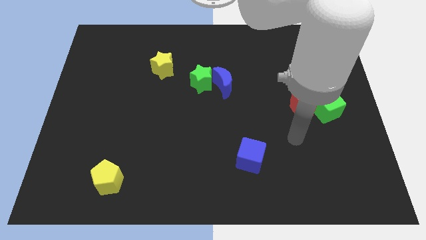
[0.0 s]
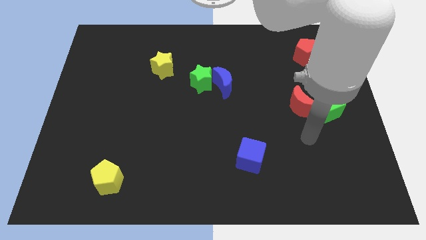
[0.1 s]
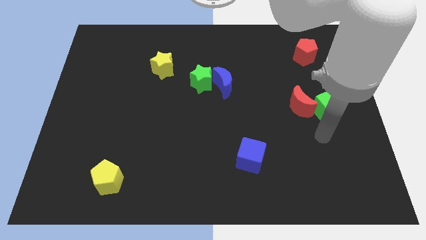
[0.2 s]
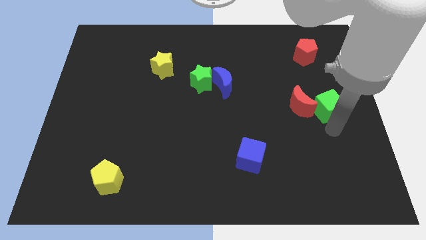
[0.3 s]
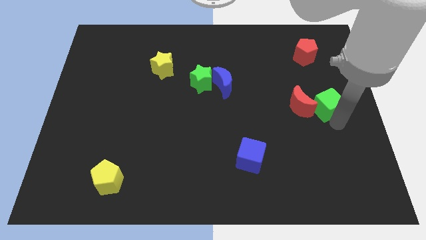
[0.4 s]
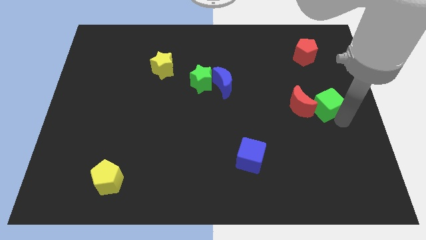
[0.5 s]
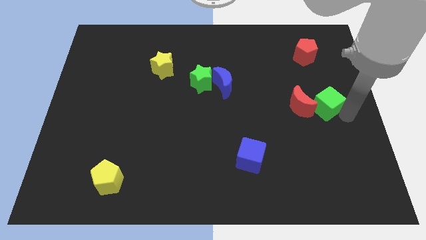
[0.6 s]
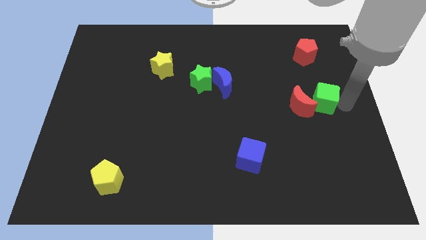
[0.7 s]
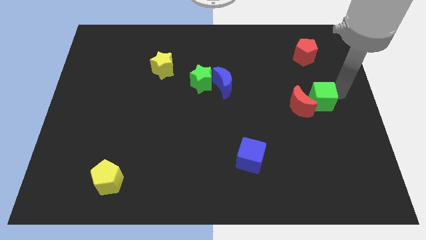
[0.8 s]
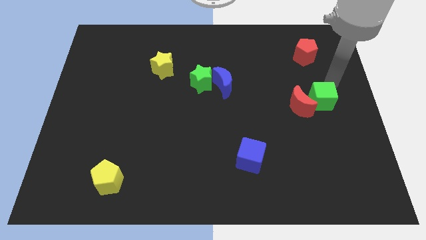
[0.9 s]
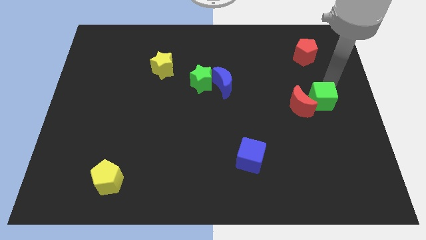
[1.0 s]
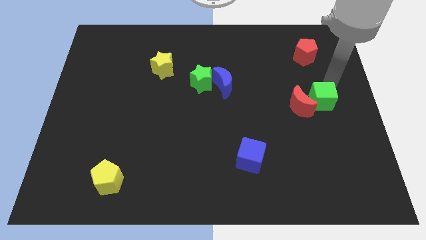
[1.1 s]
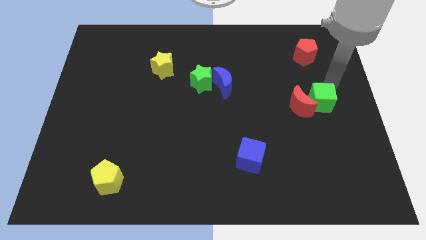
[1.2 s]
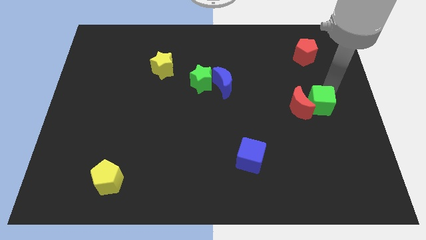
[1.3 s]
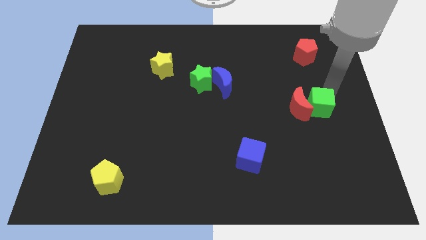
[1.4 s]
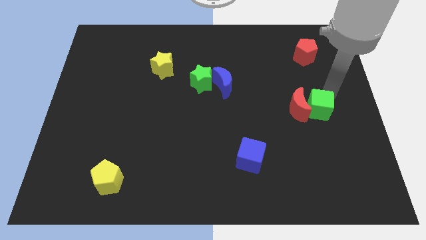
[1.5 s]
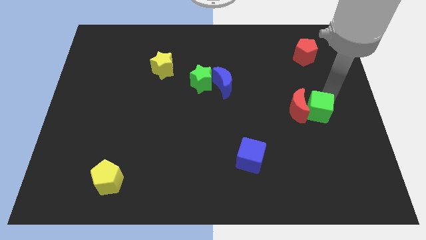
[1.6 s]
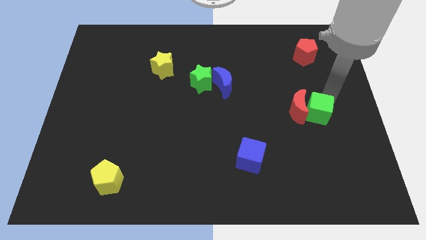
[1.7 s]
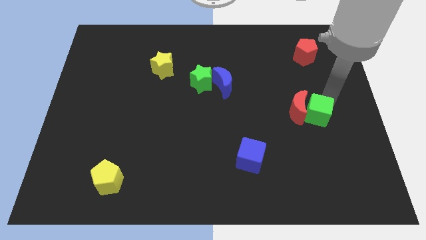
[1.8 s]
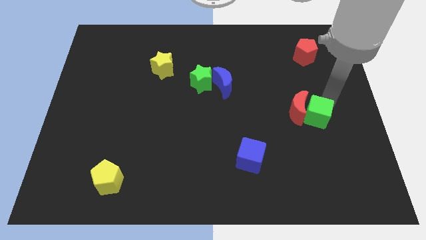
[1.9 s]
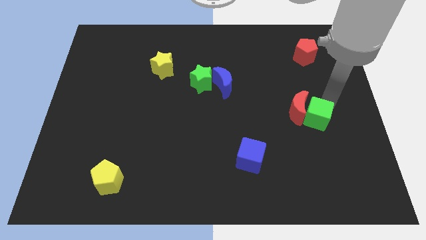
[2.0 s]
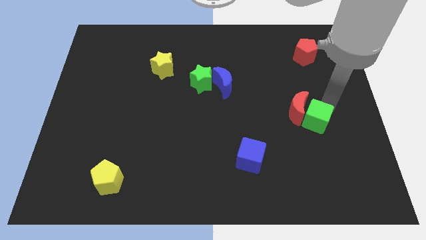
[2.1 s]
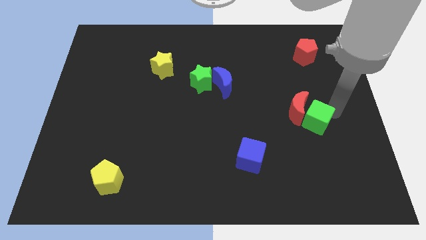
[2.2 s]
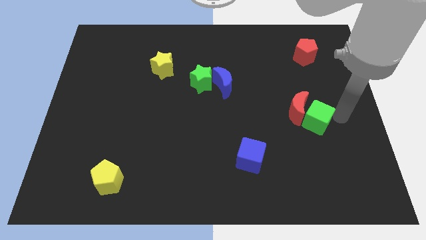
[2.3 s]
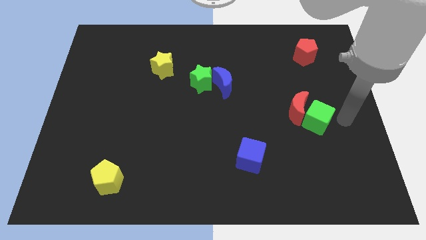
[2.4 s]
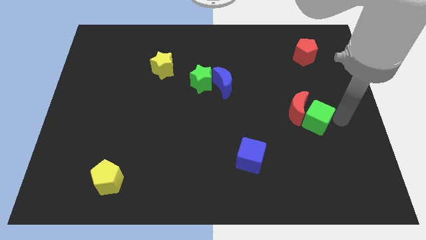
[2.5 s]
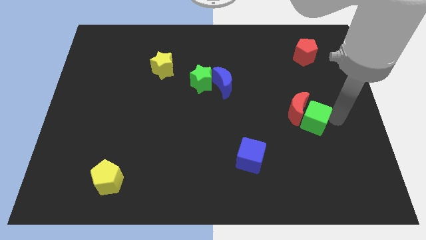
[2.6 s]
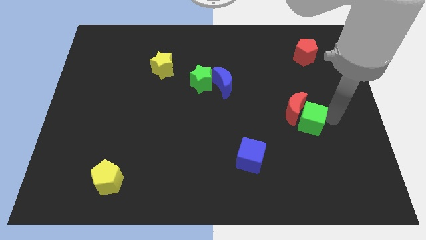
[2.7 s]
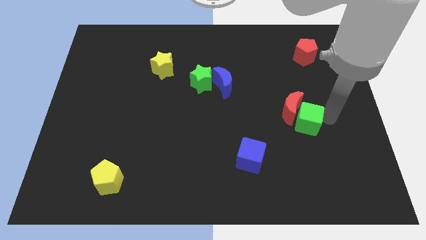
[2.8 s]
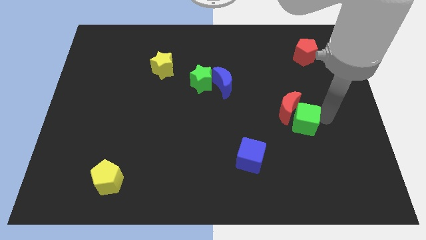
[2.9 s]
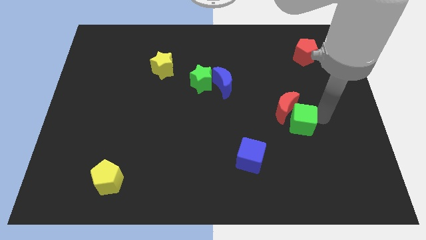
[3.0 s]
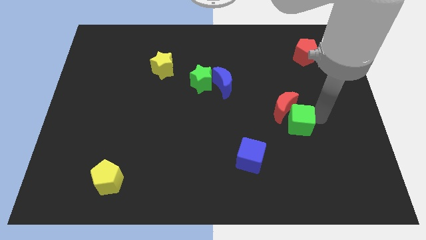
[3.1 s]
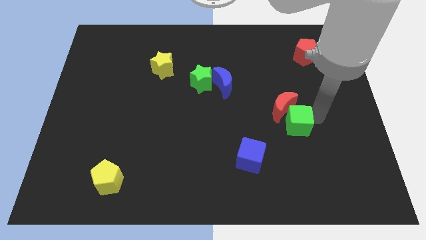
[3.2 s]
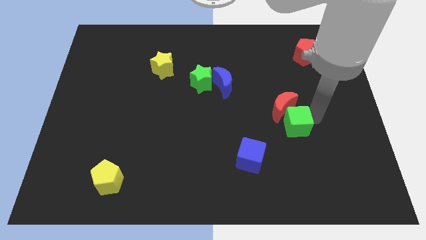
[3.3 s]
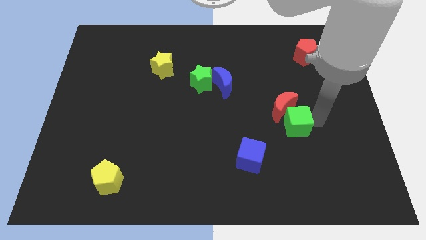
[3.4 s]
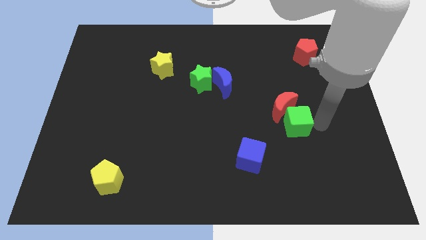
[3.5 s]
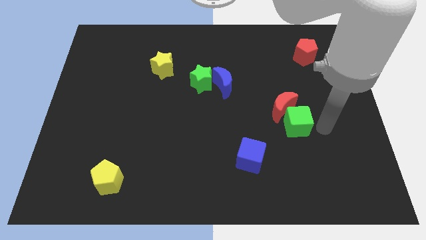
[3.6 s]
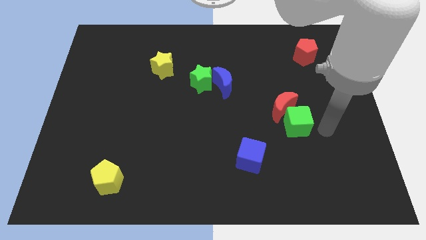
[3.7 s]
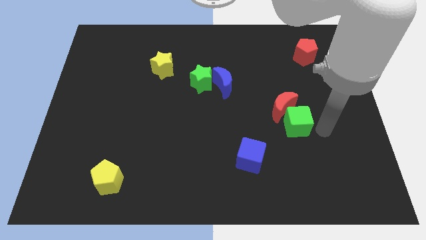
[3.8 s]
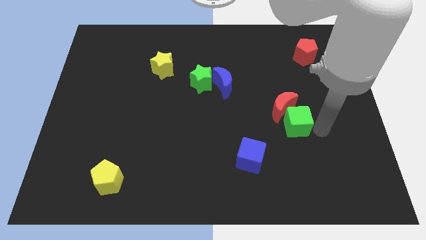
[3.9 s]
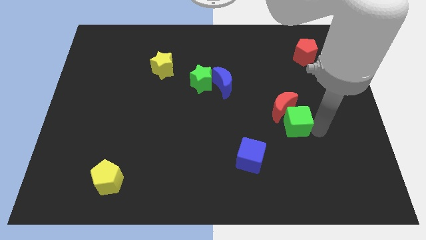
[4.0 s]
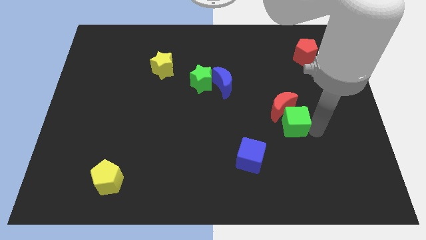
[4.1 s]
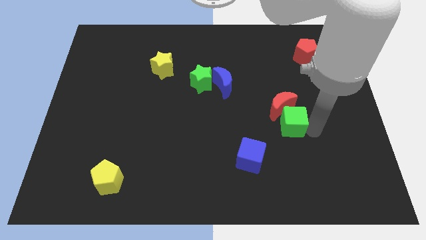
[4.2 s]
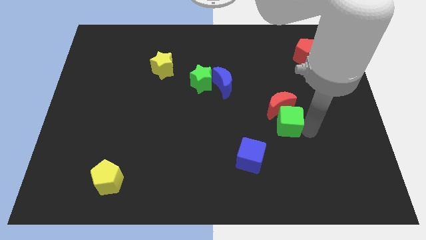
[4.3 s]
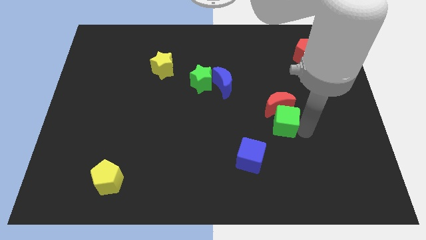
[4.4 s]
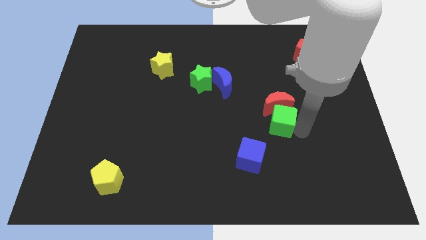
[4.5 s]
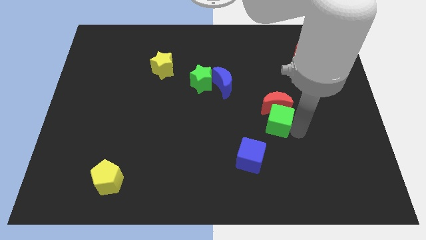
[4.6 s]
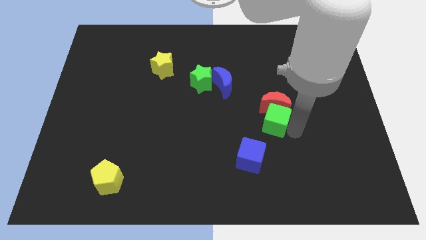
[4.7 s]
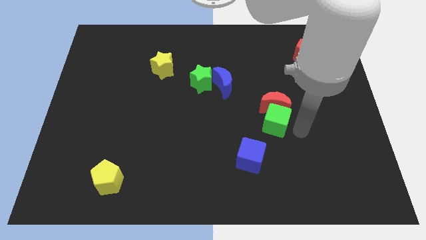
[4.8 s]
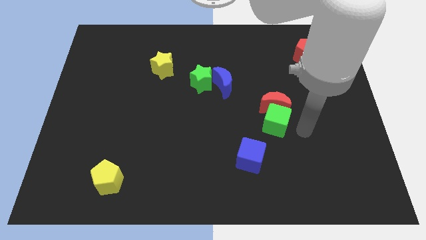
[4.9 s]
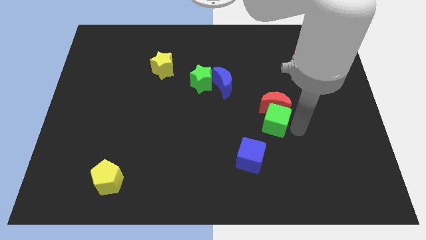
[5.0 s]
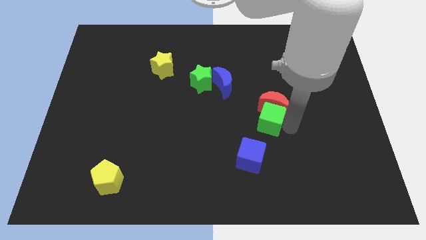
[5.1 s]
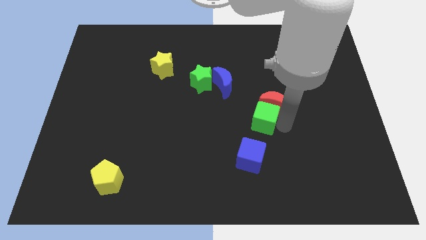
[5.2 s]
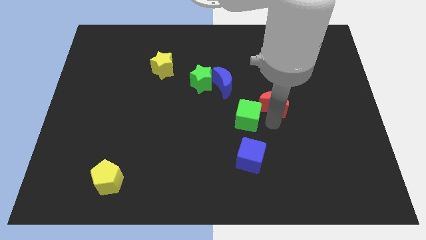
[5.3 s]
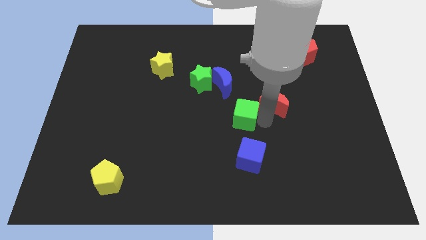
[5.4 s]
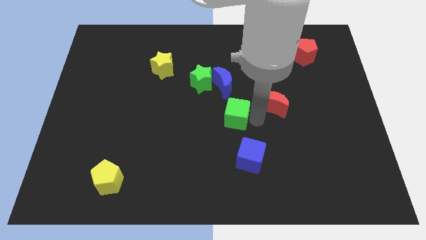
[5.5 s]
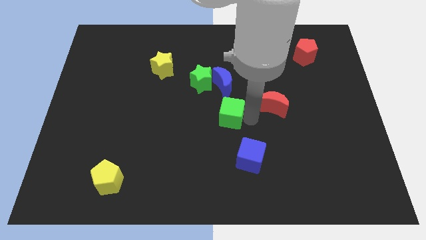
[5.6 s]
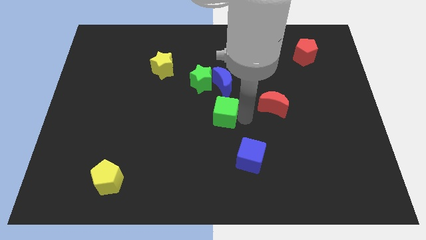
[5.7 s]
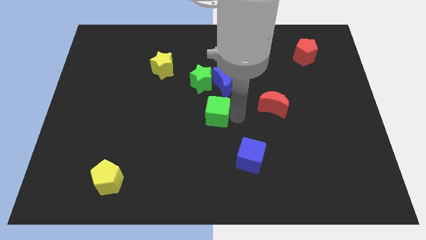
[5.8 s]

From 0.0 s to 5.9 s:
slide the green cube to the bottom of the green star

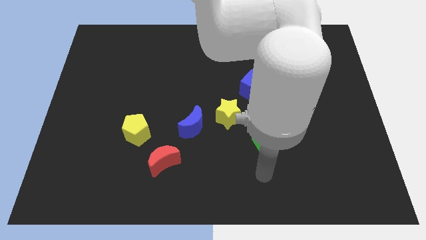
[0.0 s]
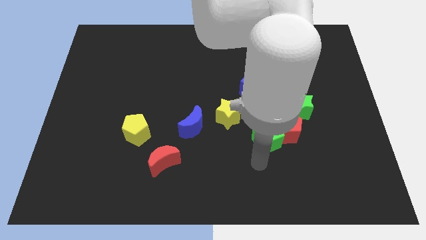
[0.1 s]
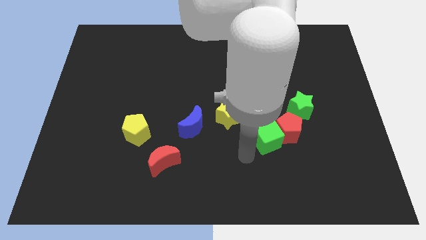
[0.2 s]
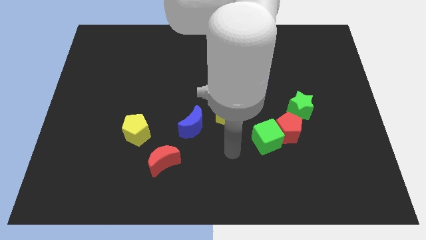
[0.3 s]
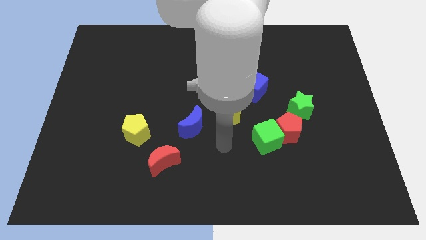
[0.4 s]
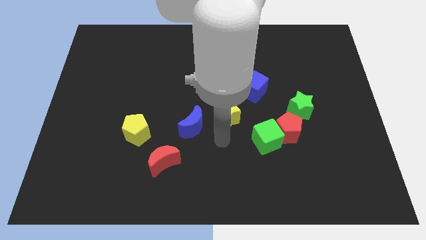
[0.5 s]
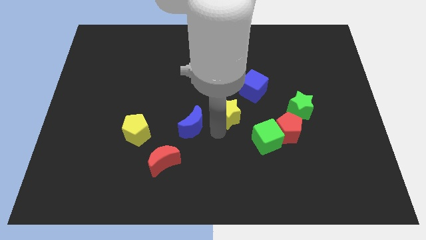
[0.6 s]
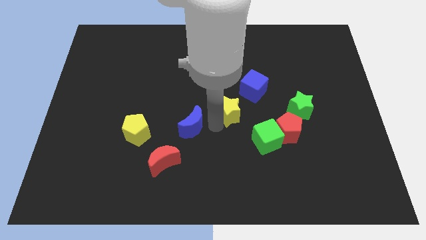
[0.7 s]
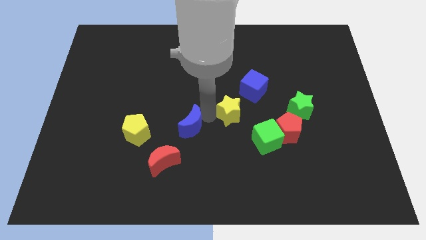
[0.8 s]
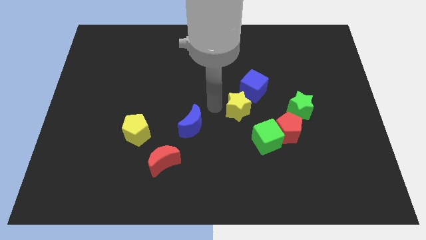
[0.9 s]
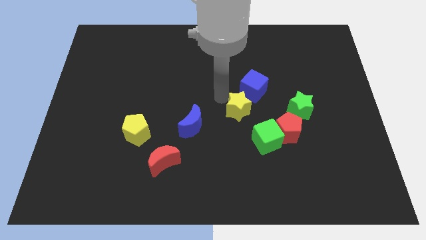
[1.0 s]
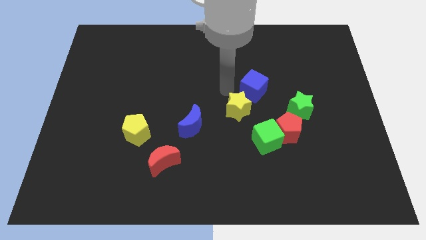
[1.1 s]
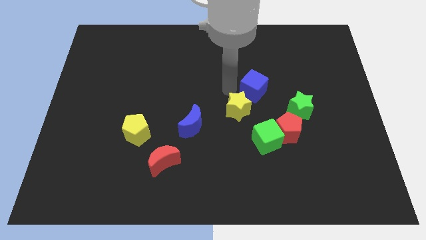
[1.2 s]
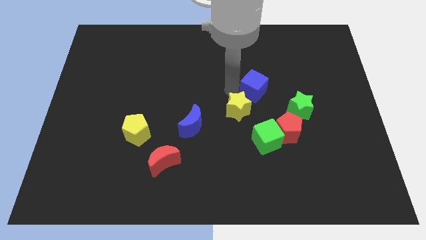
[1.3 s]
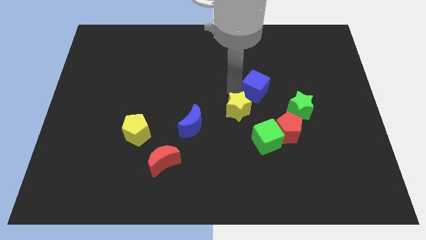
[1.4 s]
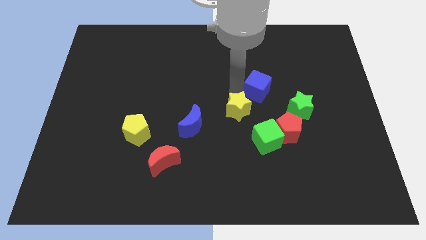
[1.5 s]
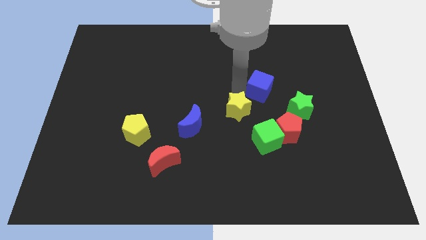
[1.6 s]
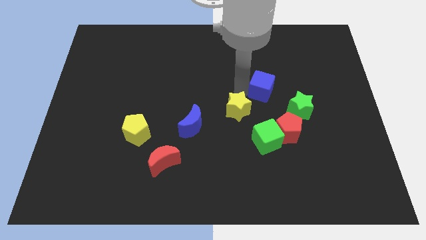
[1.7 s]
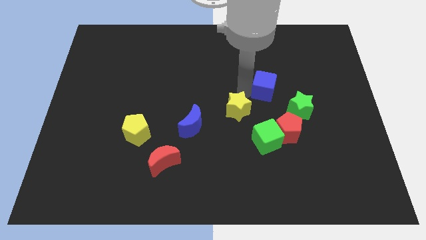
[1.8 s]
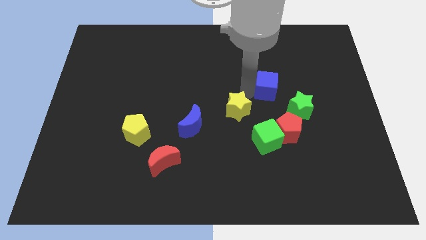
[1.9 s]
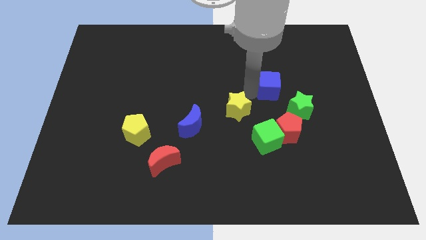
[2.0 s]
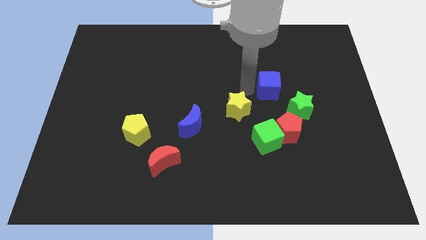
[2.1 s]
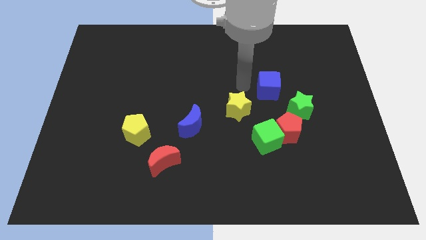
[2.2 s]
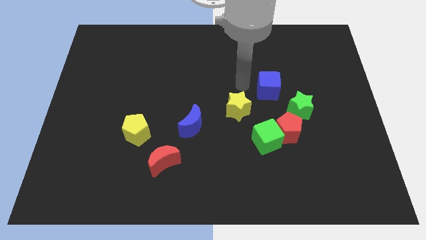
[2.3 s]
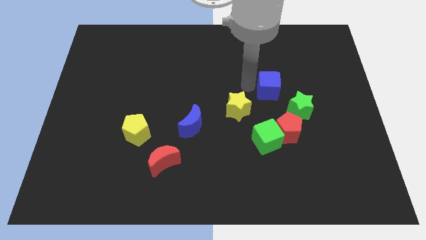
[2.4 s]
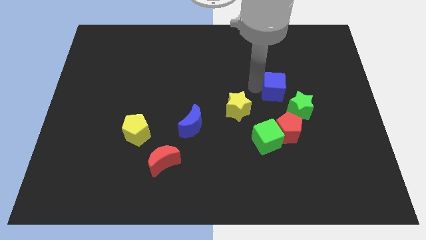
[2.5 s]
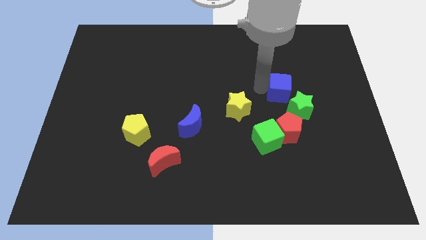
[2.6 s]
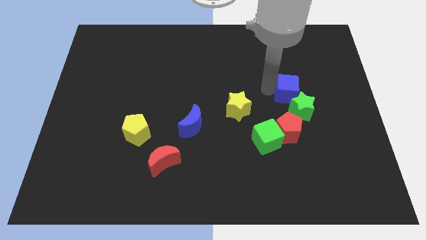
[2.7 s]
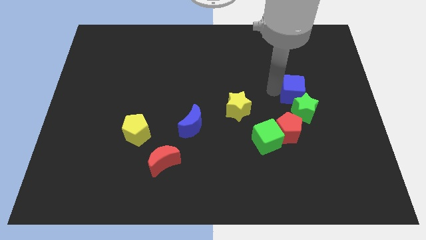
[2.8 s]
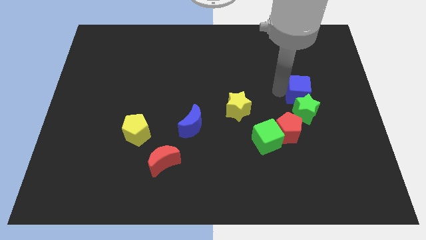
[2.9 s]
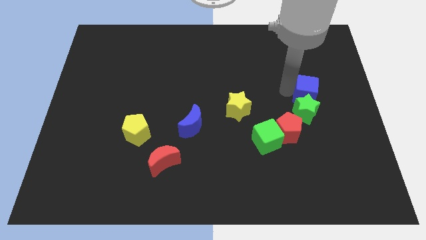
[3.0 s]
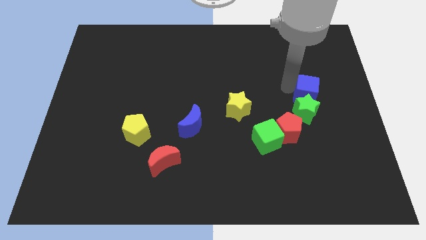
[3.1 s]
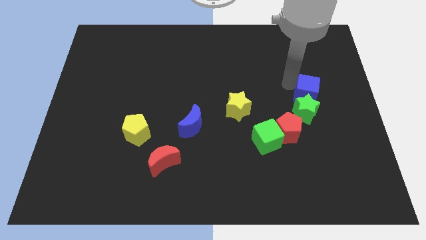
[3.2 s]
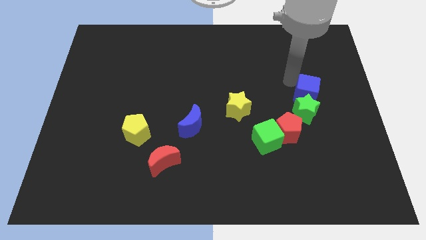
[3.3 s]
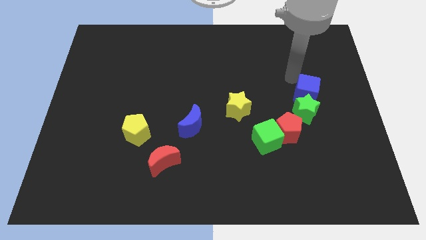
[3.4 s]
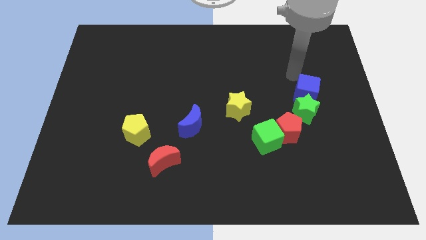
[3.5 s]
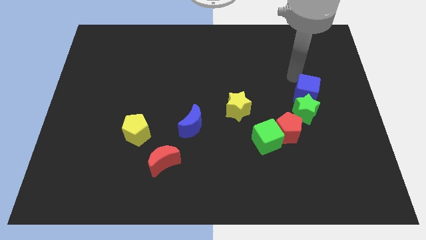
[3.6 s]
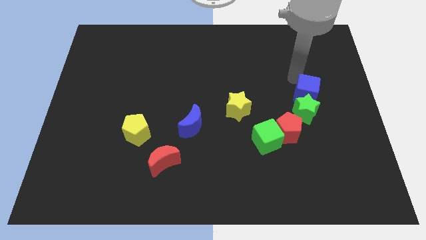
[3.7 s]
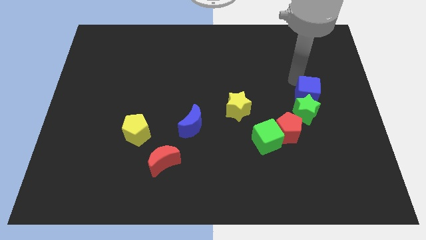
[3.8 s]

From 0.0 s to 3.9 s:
move the blue cube to the top right of the red pentagon
